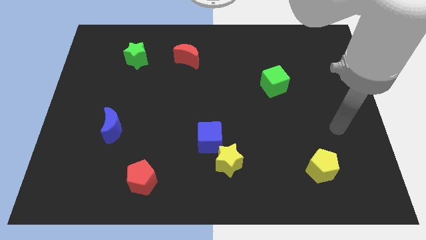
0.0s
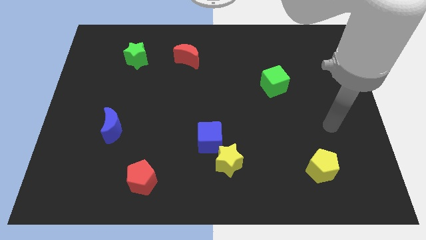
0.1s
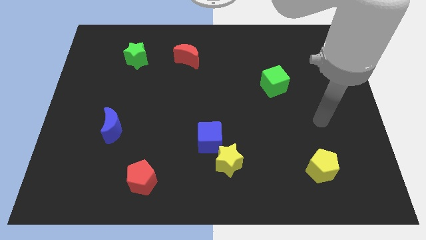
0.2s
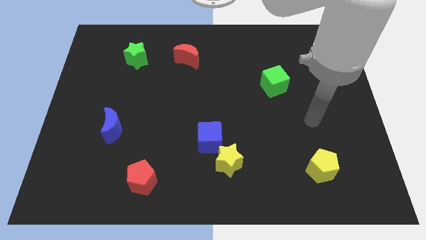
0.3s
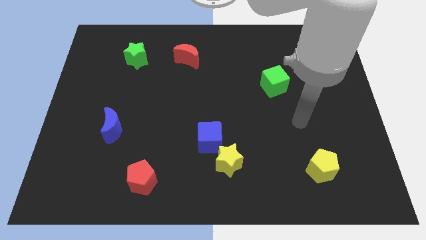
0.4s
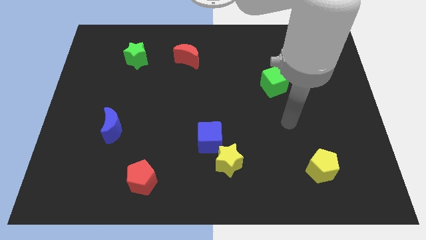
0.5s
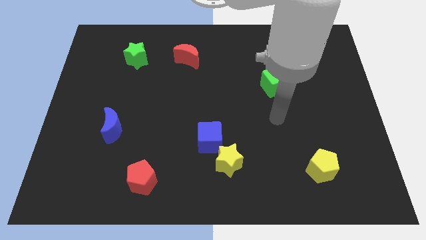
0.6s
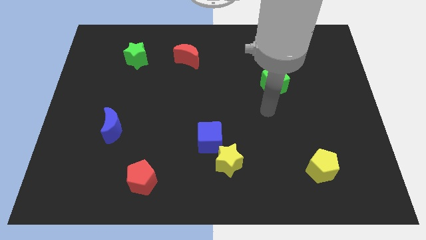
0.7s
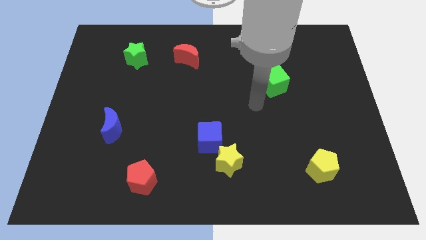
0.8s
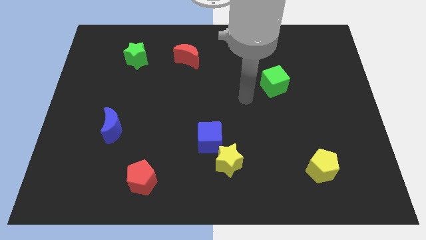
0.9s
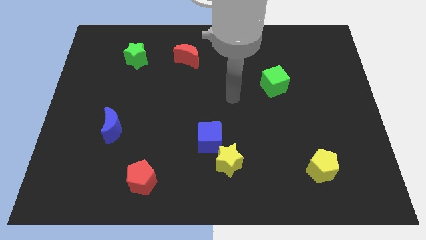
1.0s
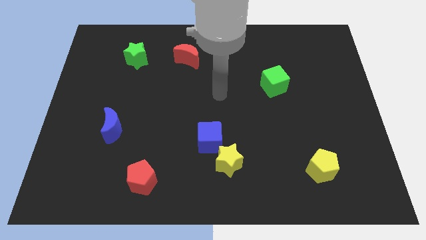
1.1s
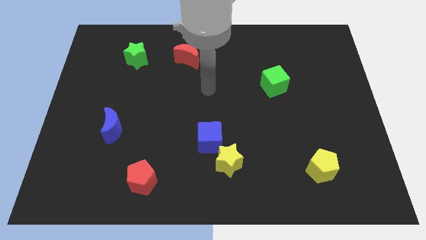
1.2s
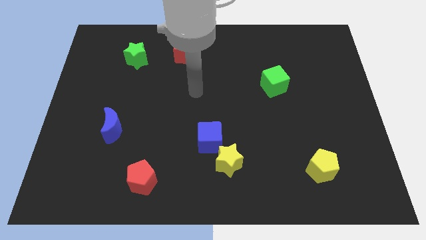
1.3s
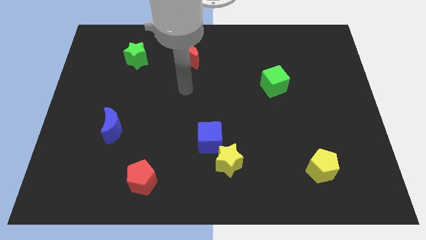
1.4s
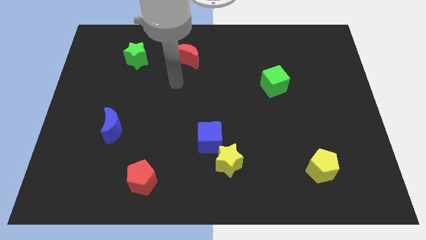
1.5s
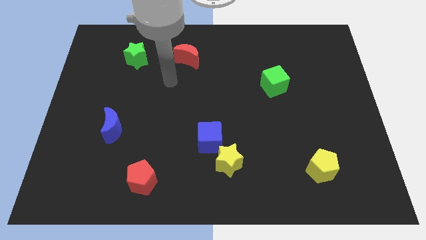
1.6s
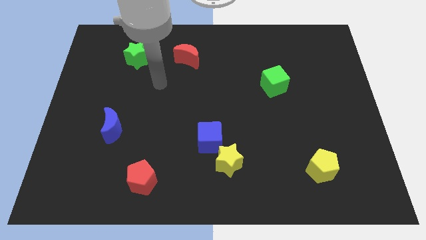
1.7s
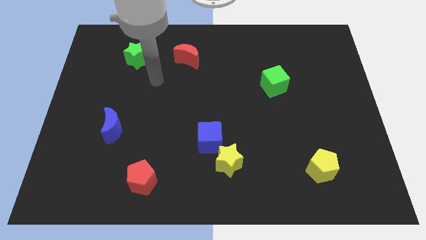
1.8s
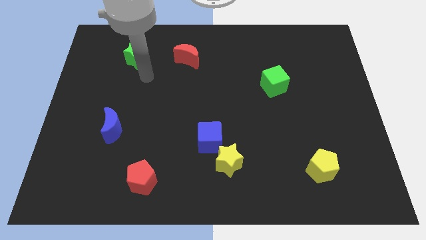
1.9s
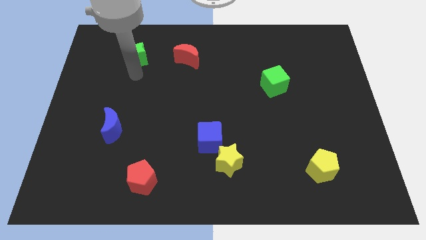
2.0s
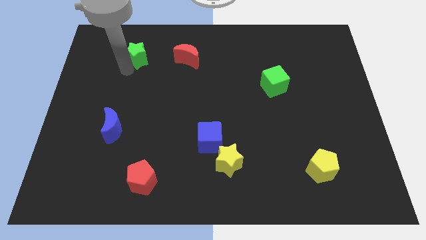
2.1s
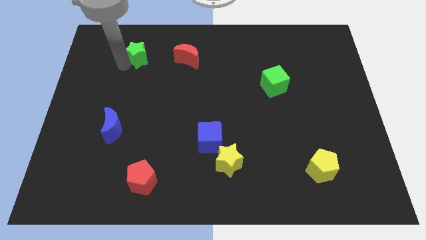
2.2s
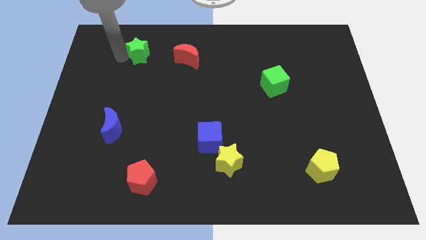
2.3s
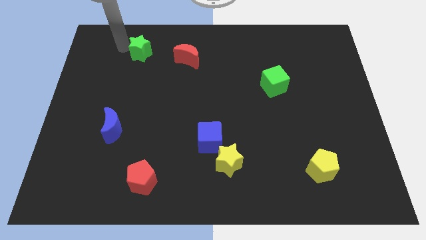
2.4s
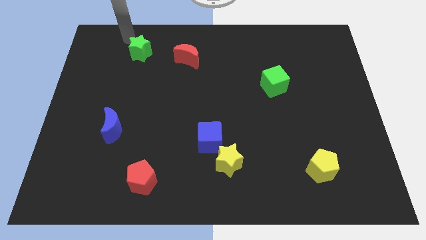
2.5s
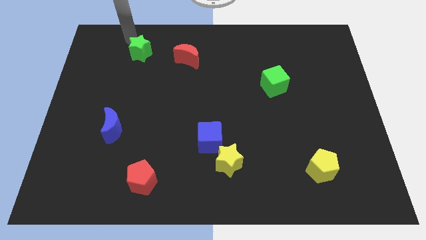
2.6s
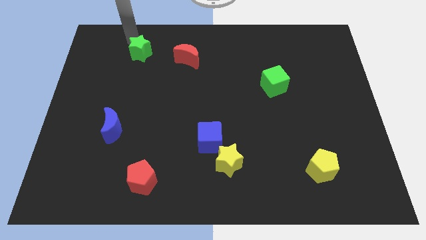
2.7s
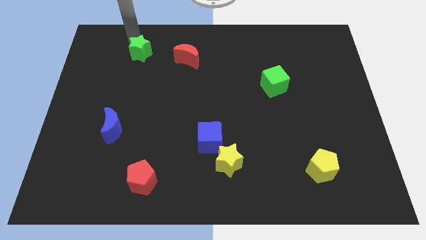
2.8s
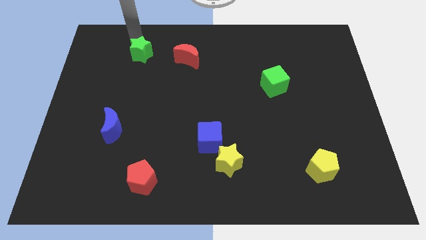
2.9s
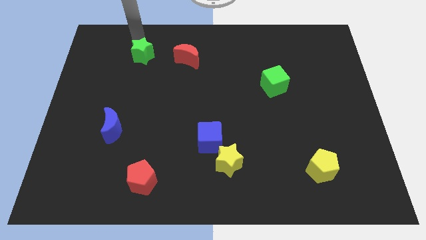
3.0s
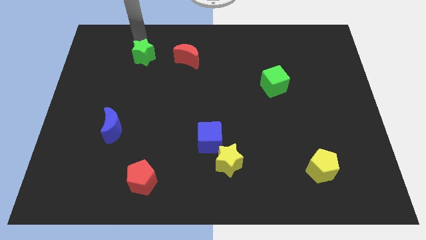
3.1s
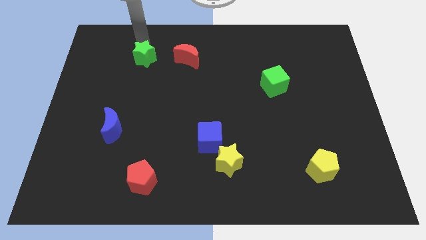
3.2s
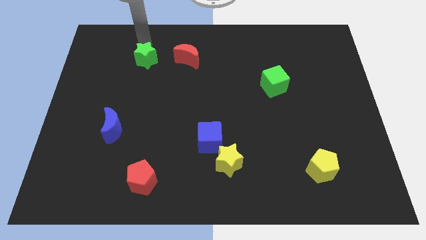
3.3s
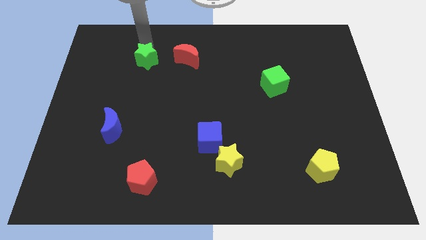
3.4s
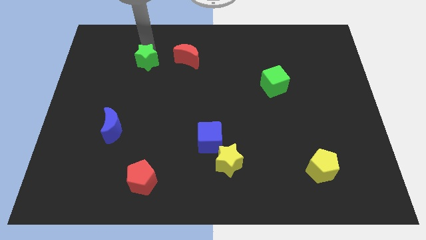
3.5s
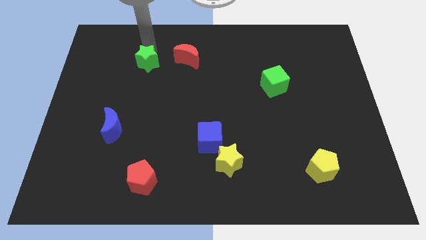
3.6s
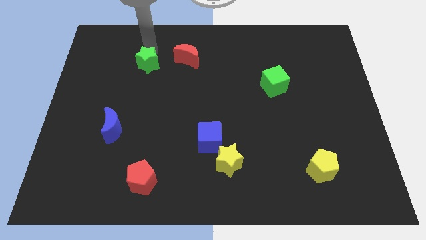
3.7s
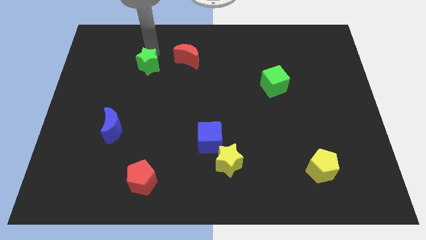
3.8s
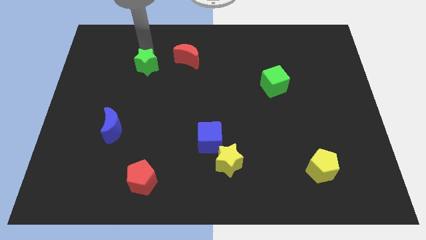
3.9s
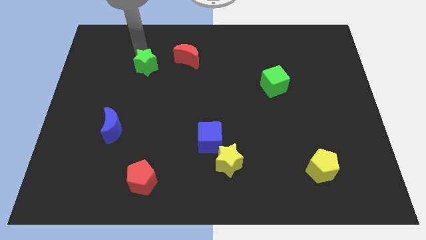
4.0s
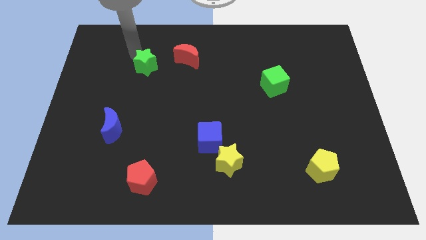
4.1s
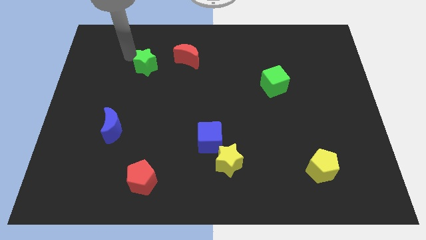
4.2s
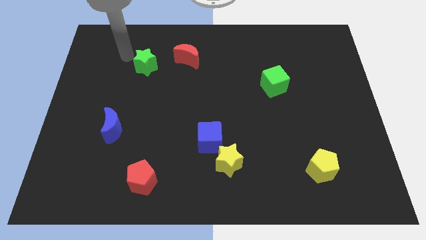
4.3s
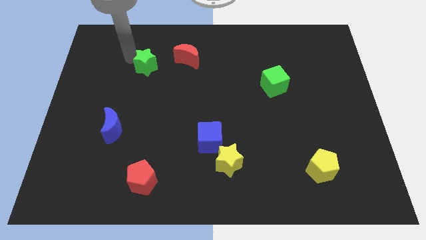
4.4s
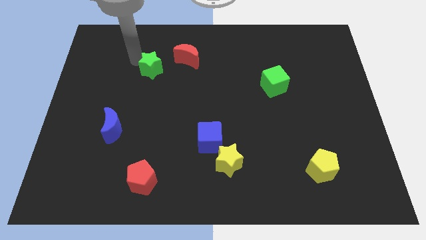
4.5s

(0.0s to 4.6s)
slide the green star diagonally down and to the left of the red moon

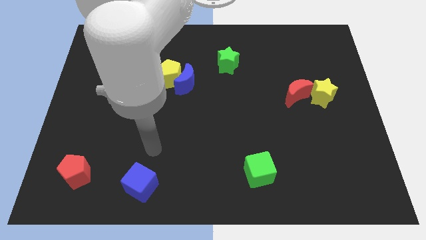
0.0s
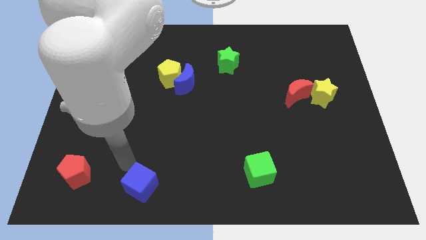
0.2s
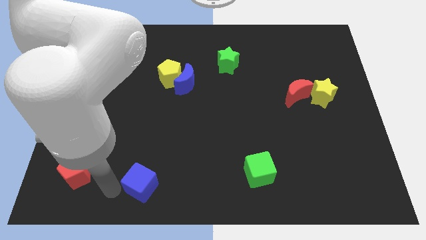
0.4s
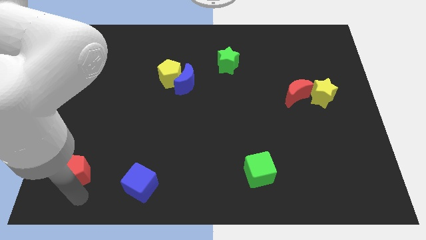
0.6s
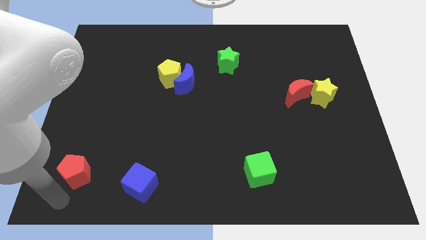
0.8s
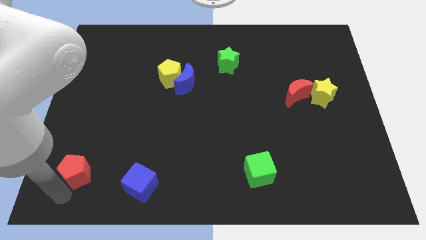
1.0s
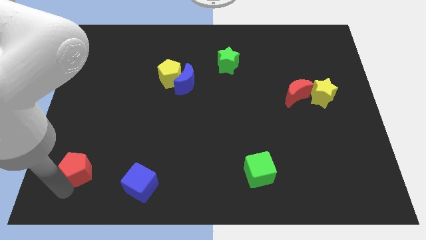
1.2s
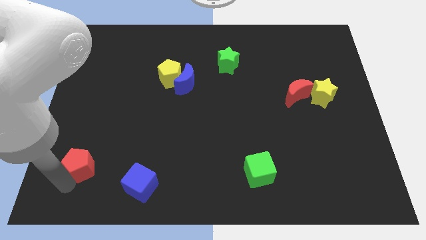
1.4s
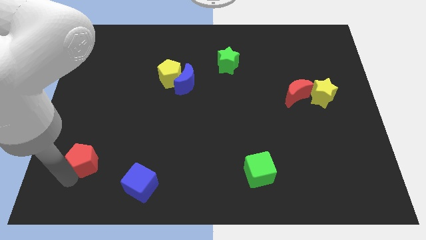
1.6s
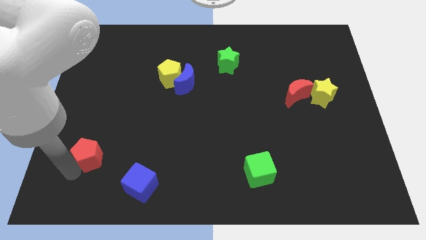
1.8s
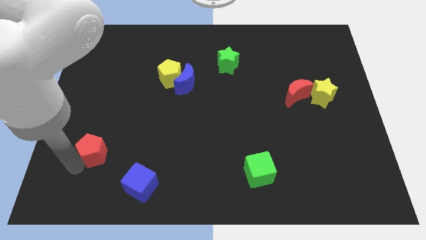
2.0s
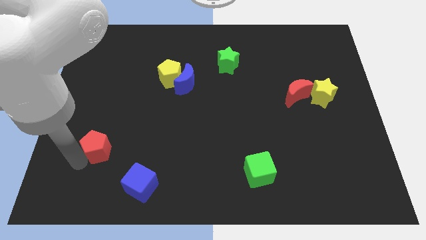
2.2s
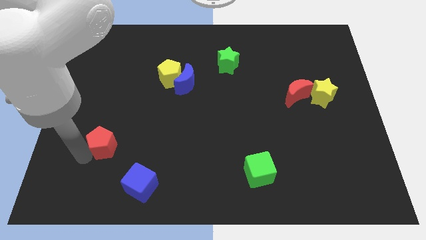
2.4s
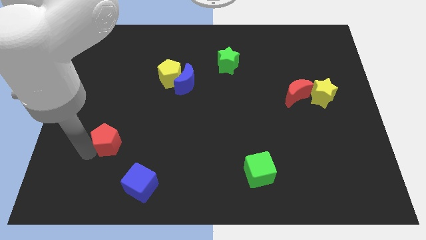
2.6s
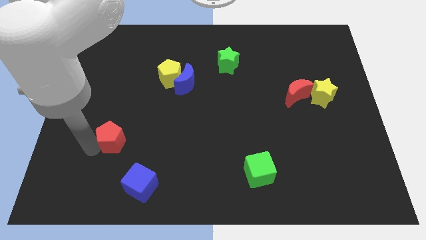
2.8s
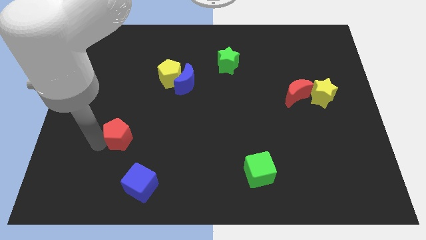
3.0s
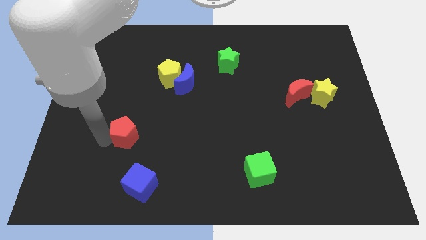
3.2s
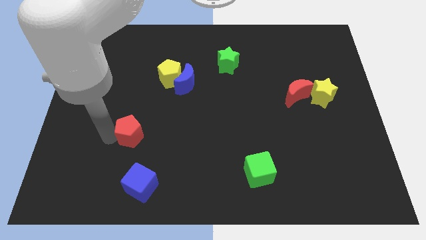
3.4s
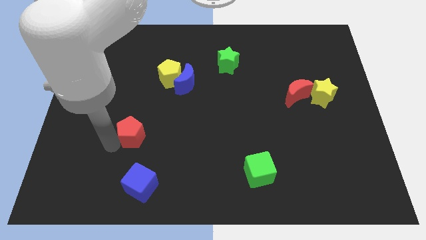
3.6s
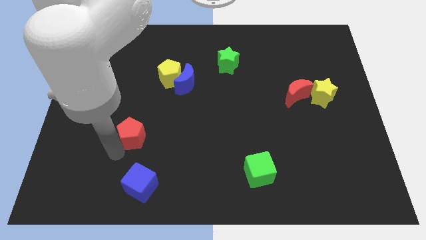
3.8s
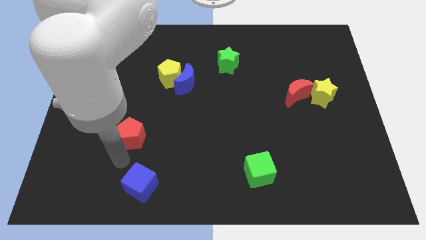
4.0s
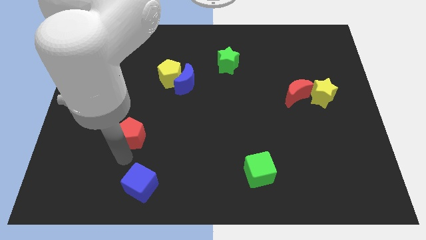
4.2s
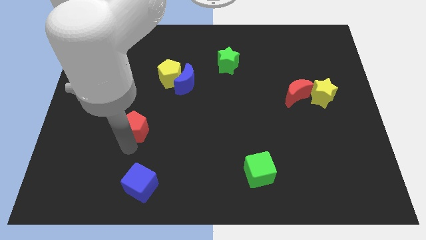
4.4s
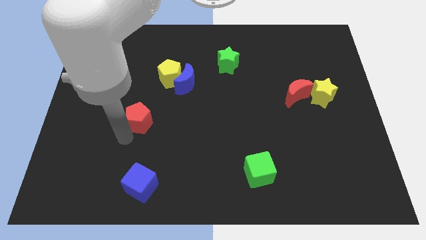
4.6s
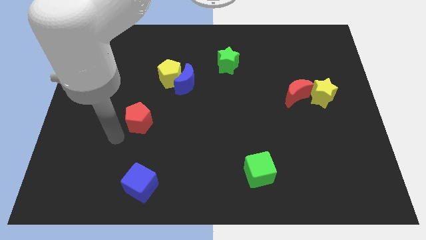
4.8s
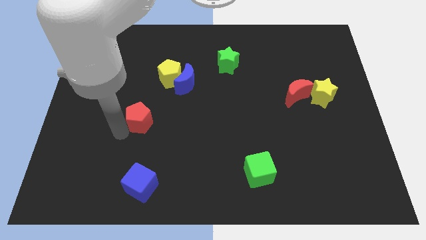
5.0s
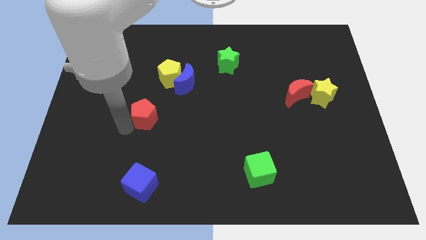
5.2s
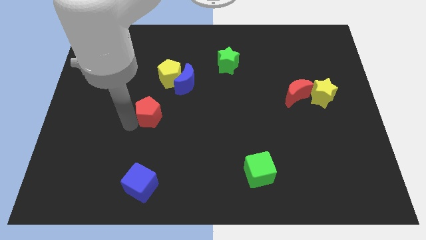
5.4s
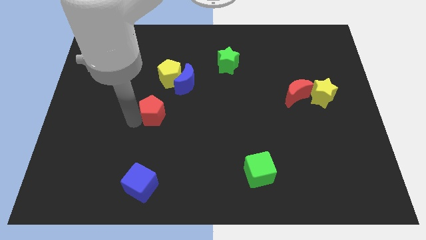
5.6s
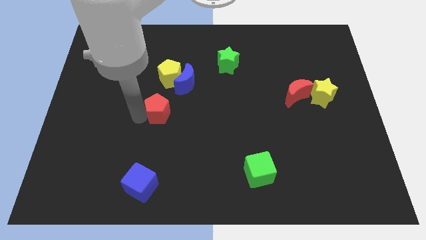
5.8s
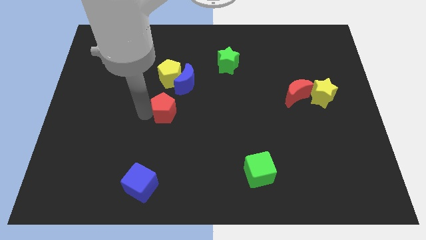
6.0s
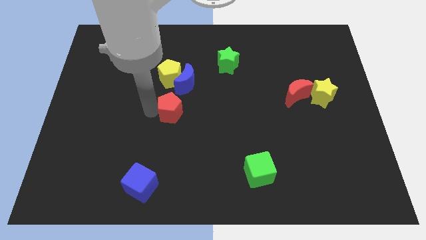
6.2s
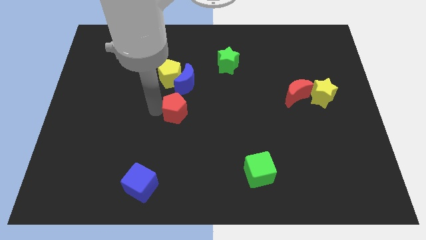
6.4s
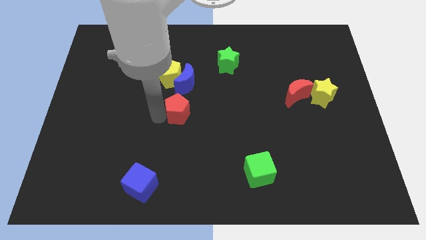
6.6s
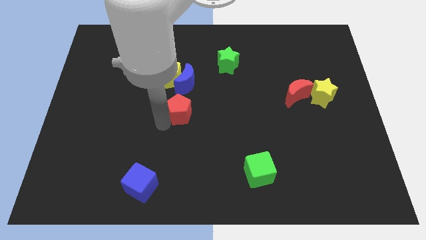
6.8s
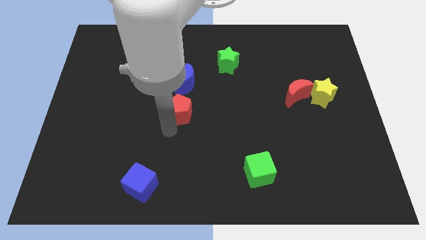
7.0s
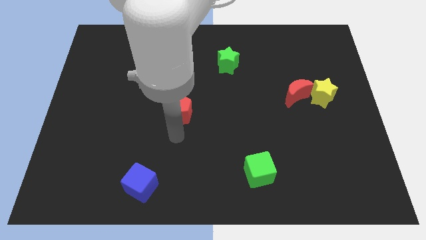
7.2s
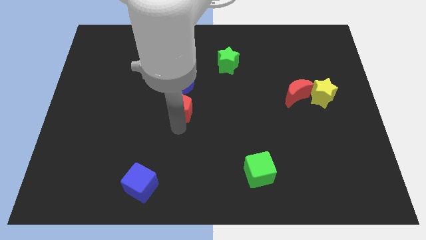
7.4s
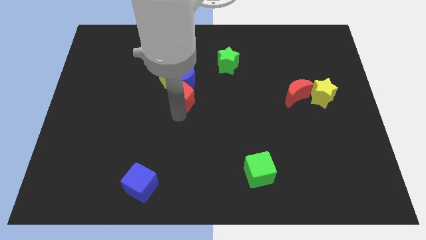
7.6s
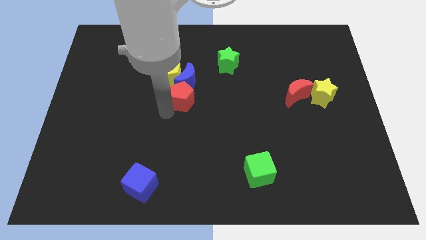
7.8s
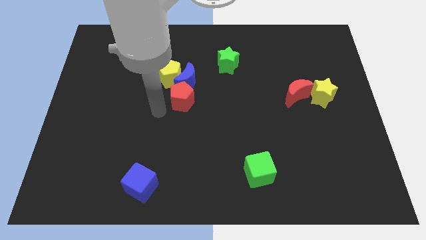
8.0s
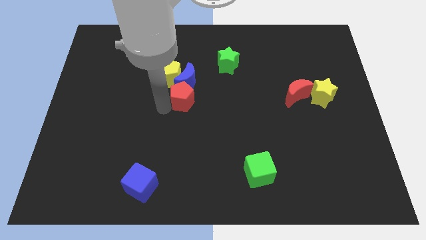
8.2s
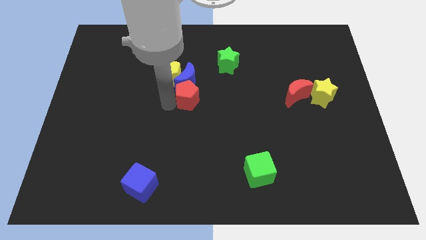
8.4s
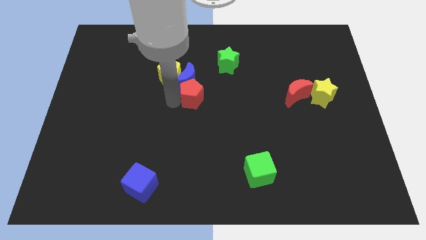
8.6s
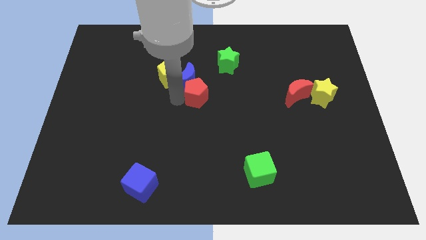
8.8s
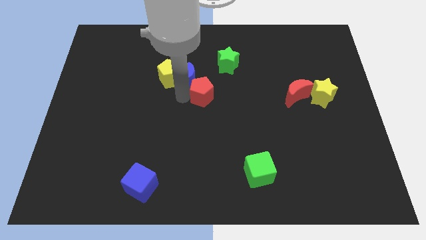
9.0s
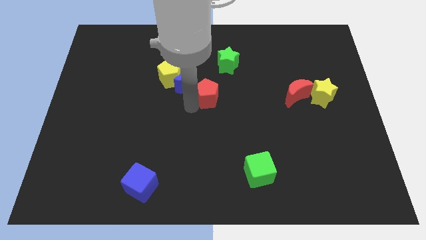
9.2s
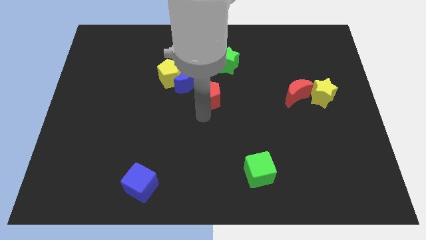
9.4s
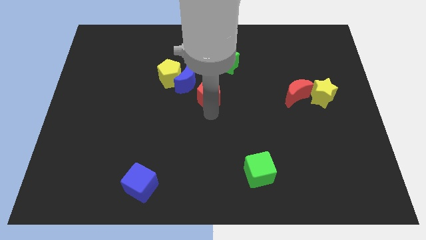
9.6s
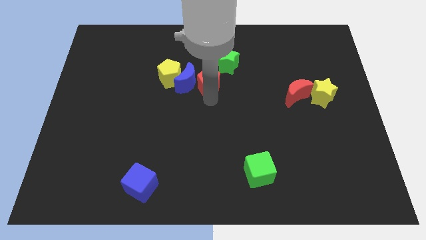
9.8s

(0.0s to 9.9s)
push the red pentagon to the top right of the blue moon
